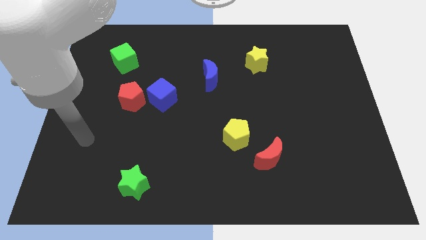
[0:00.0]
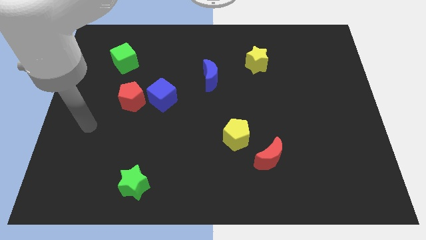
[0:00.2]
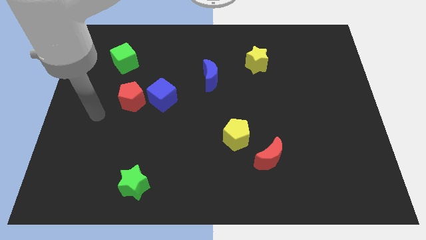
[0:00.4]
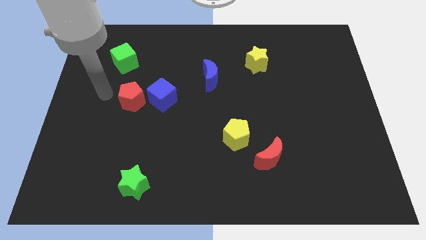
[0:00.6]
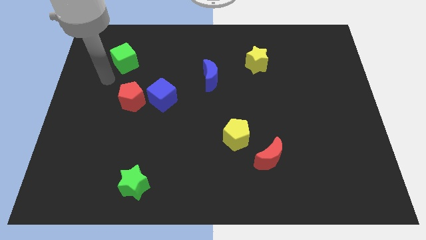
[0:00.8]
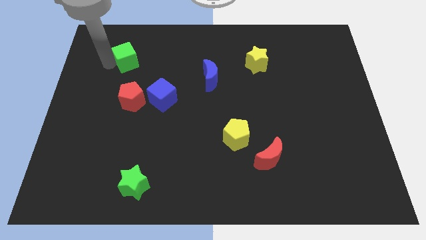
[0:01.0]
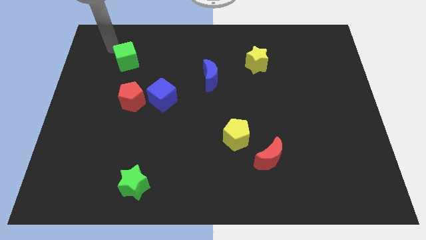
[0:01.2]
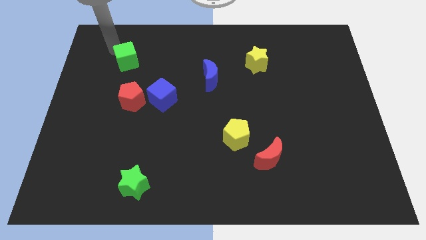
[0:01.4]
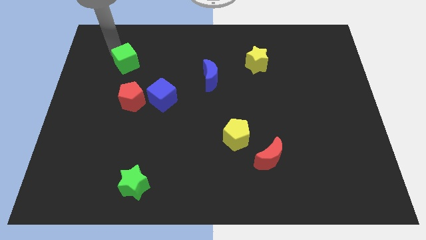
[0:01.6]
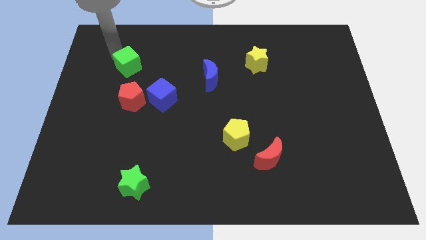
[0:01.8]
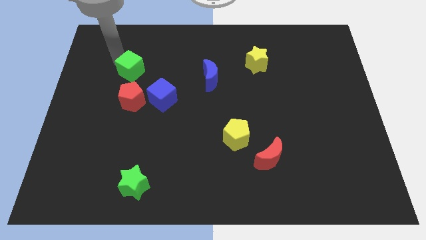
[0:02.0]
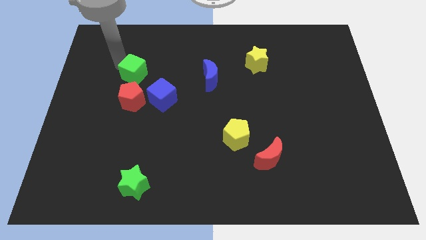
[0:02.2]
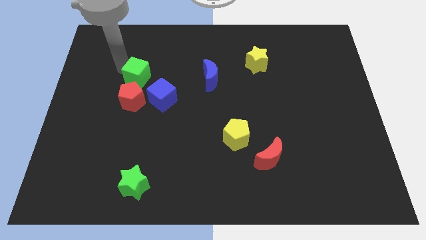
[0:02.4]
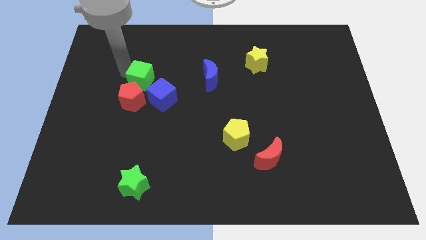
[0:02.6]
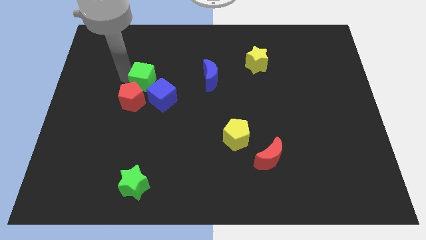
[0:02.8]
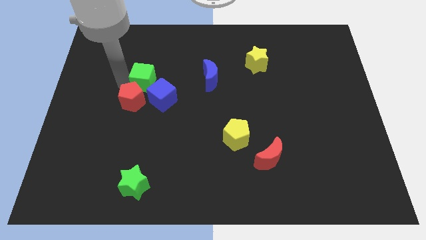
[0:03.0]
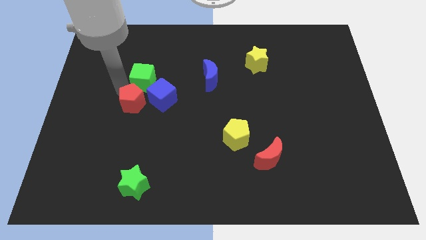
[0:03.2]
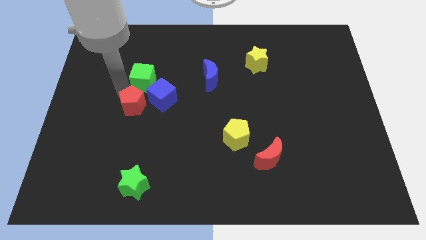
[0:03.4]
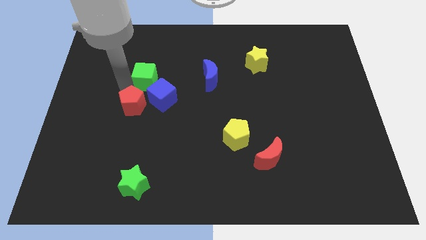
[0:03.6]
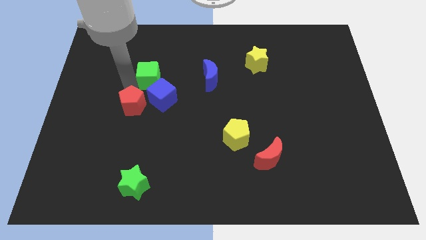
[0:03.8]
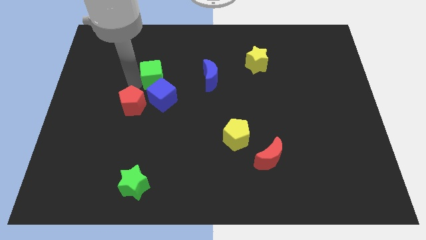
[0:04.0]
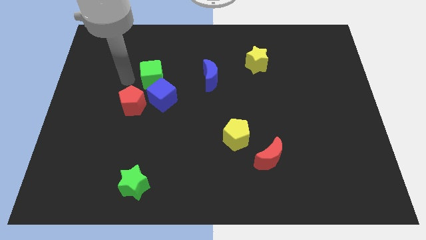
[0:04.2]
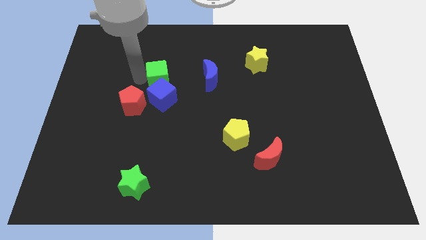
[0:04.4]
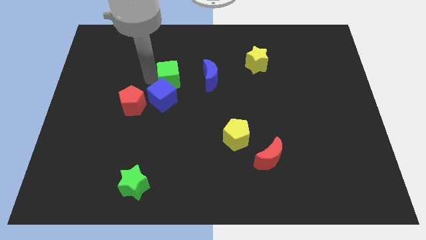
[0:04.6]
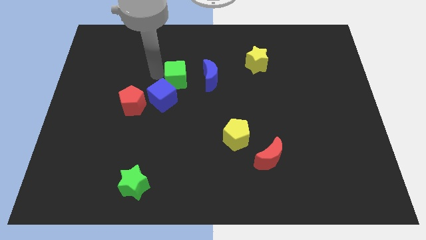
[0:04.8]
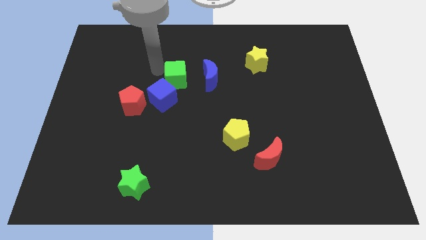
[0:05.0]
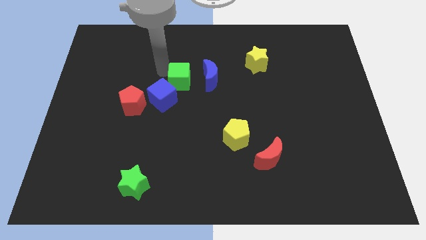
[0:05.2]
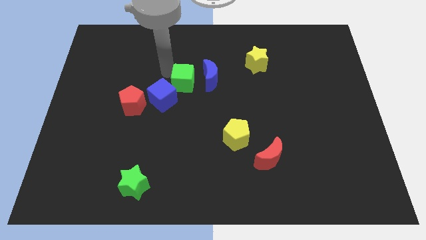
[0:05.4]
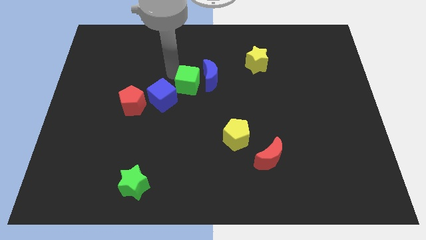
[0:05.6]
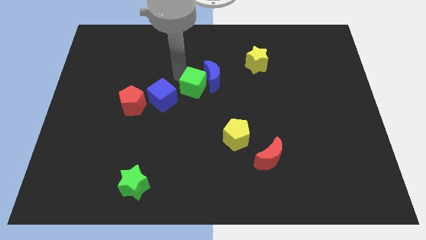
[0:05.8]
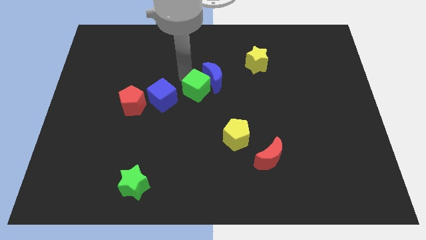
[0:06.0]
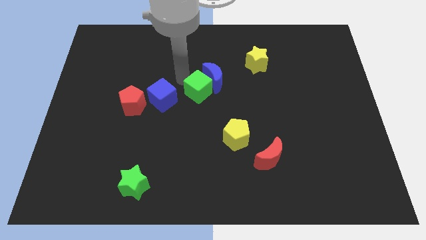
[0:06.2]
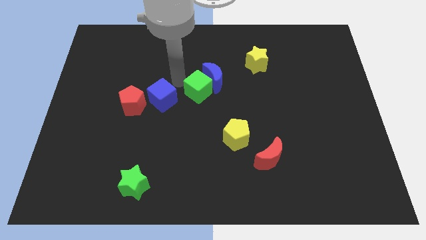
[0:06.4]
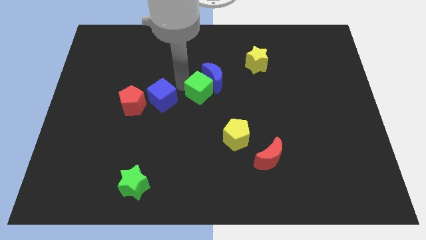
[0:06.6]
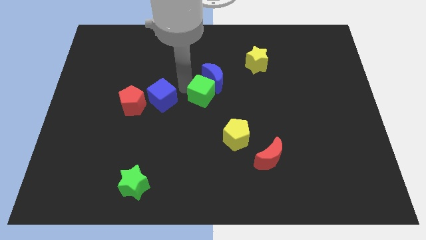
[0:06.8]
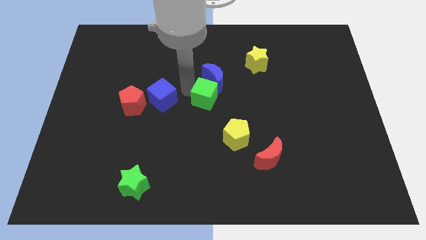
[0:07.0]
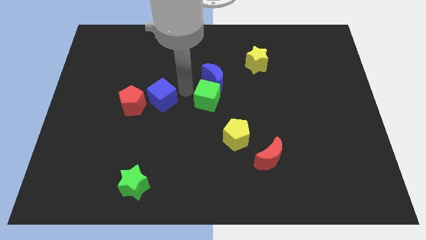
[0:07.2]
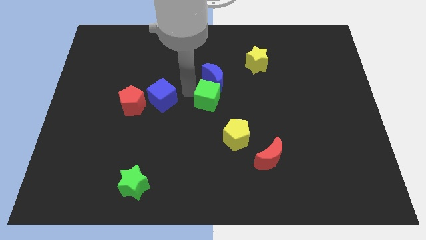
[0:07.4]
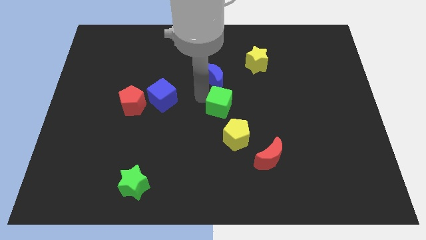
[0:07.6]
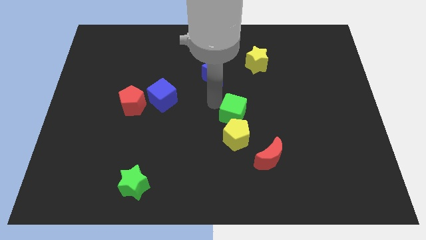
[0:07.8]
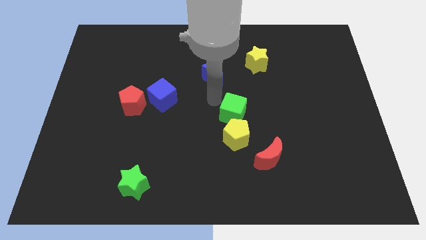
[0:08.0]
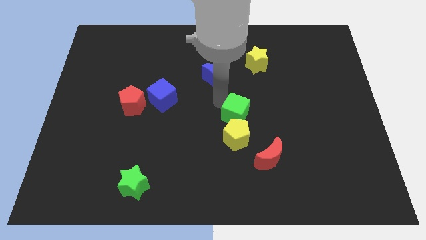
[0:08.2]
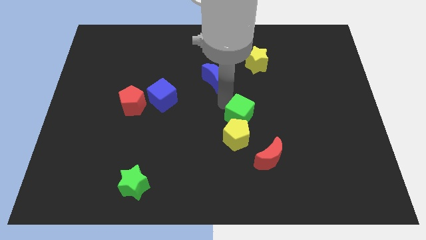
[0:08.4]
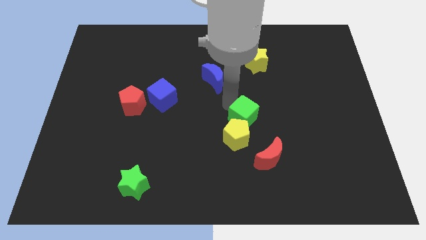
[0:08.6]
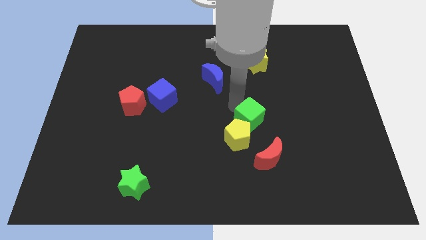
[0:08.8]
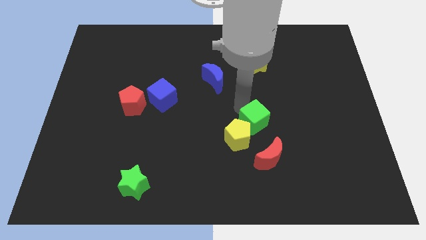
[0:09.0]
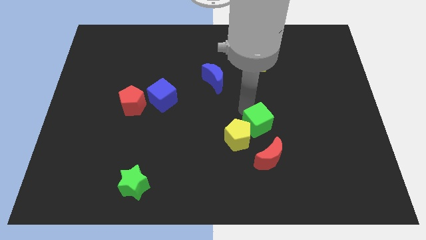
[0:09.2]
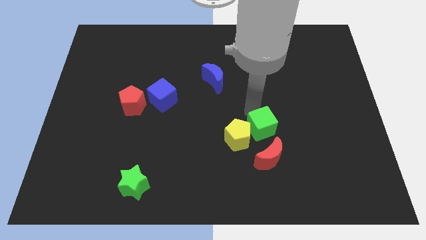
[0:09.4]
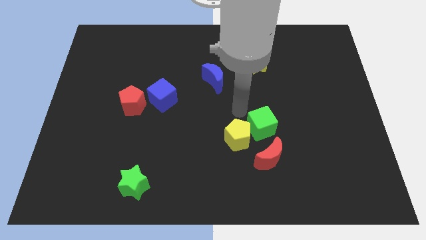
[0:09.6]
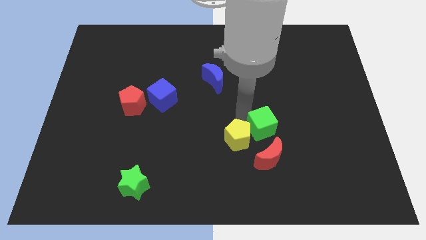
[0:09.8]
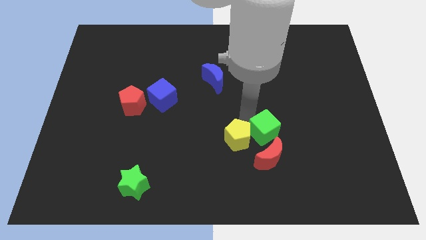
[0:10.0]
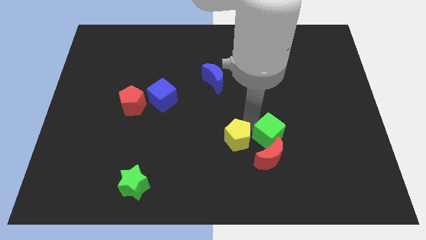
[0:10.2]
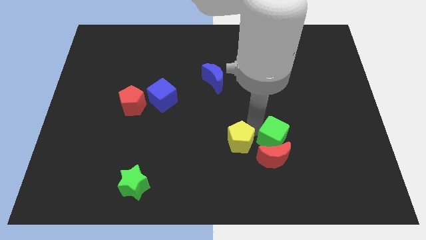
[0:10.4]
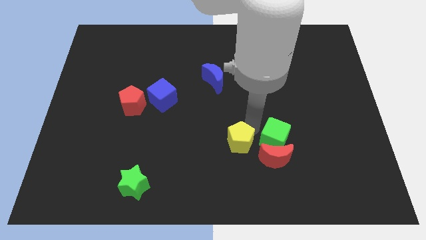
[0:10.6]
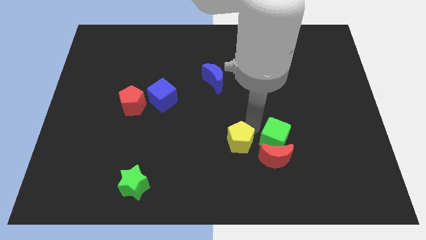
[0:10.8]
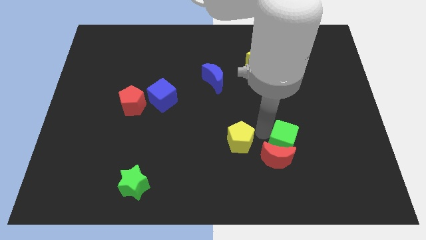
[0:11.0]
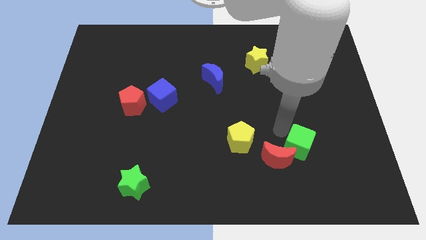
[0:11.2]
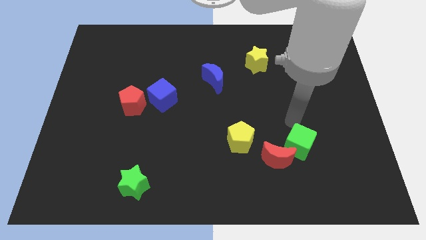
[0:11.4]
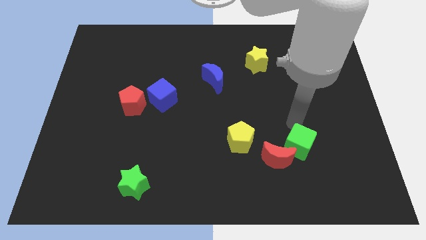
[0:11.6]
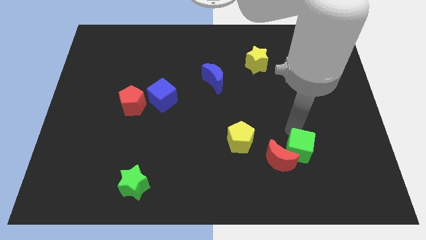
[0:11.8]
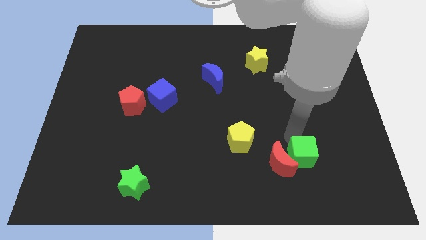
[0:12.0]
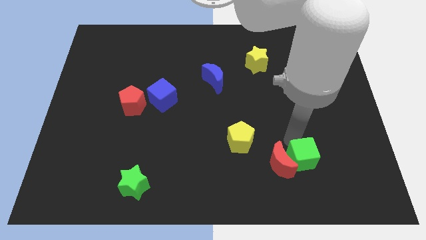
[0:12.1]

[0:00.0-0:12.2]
move the green cube diagonally down and to the right of the red moon

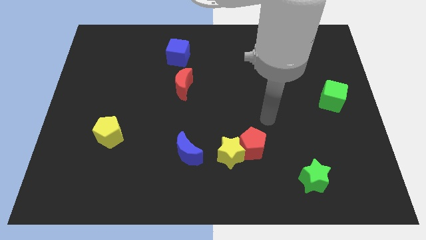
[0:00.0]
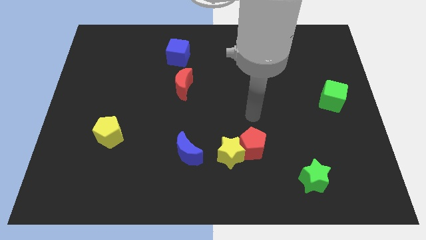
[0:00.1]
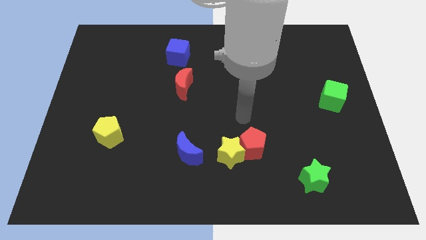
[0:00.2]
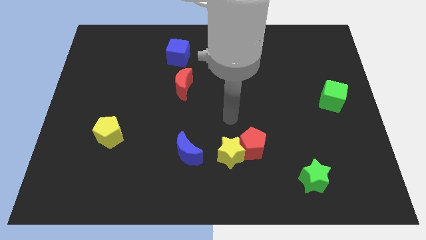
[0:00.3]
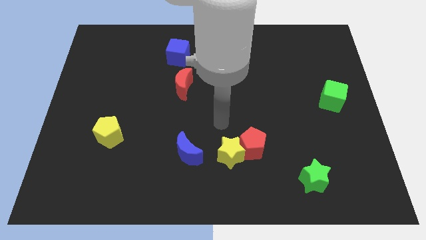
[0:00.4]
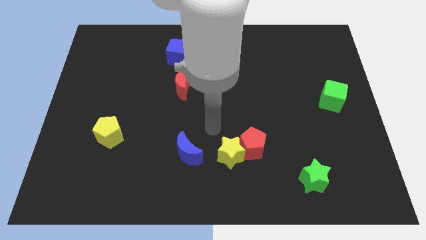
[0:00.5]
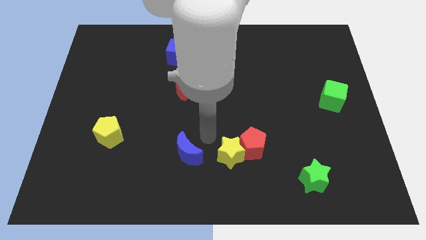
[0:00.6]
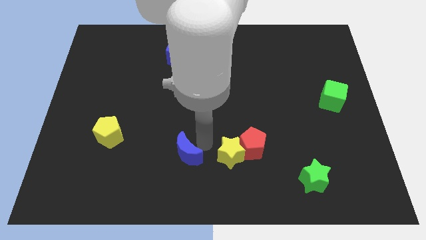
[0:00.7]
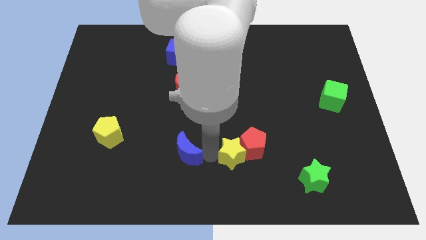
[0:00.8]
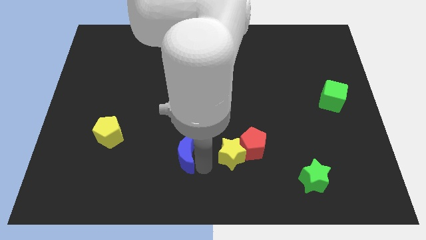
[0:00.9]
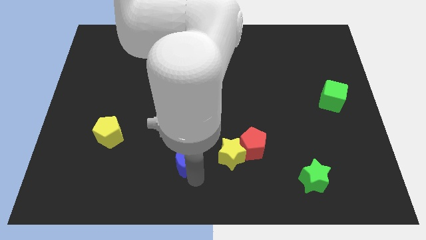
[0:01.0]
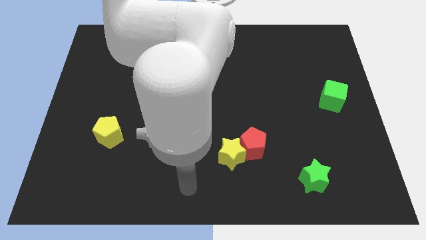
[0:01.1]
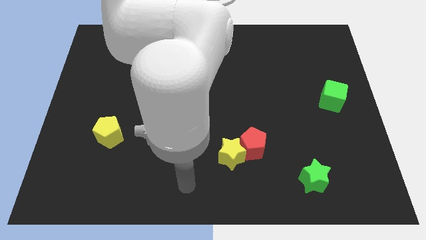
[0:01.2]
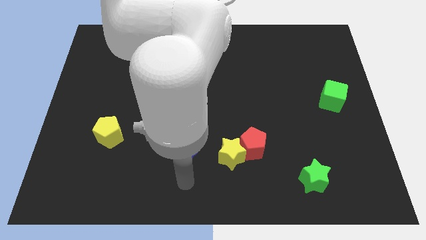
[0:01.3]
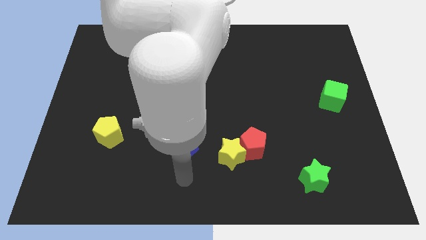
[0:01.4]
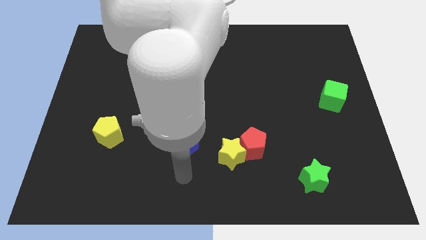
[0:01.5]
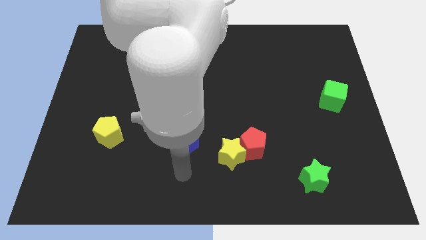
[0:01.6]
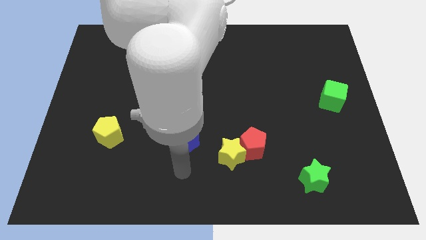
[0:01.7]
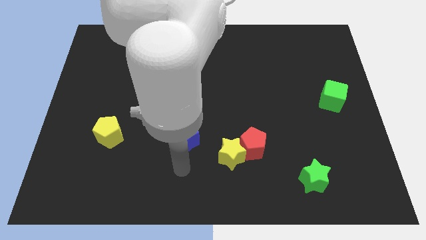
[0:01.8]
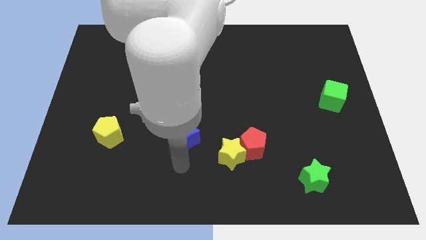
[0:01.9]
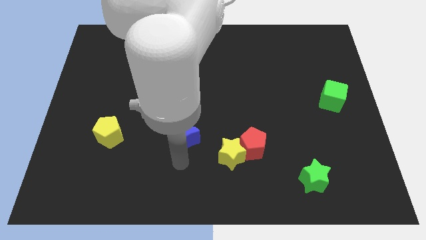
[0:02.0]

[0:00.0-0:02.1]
move the blue moon to the bottom of the red moon
